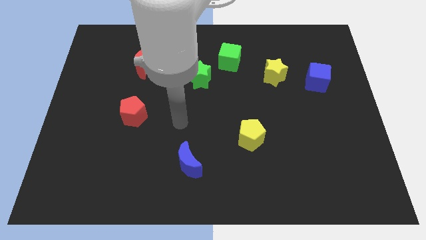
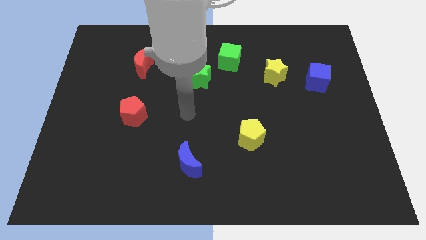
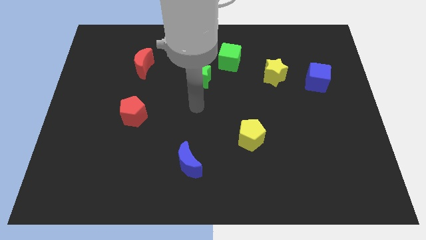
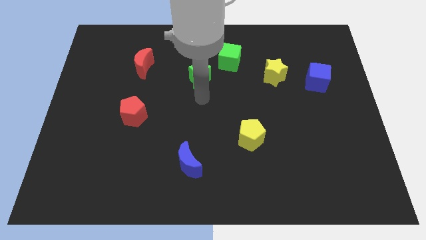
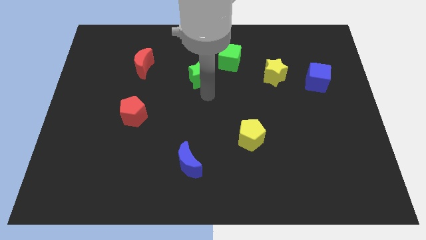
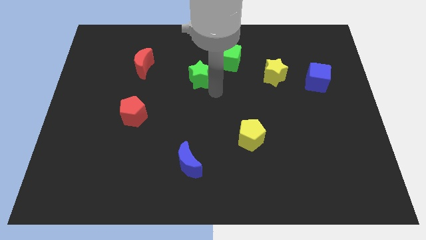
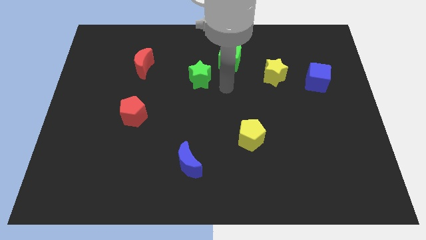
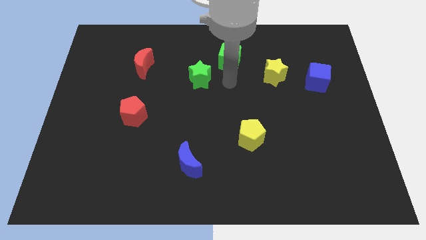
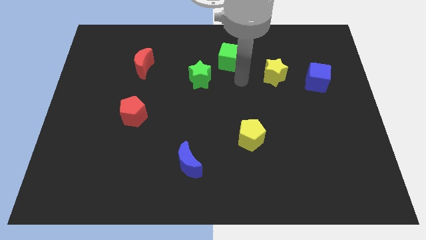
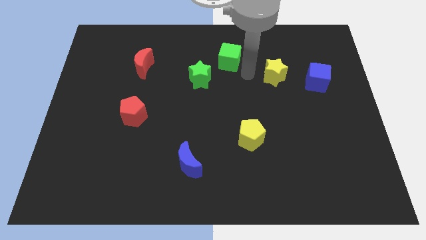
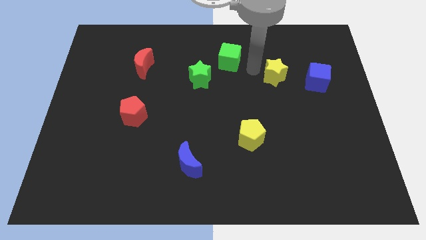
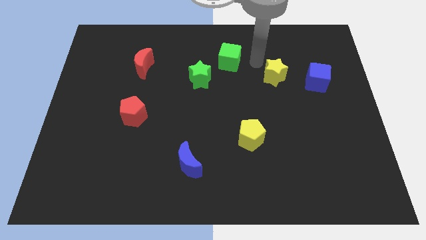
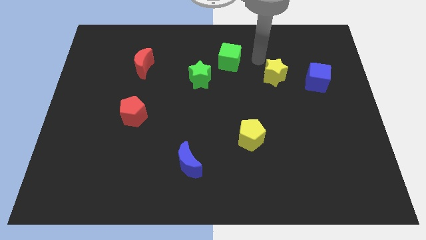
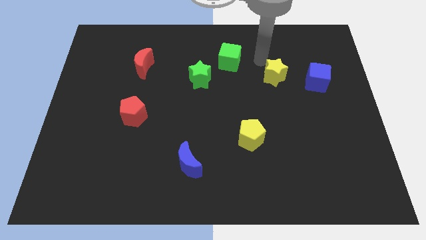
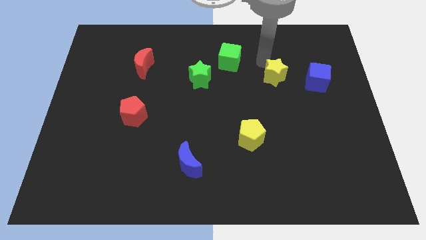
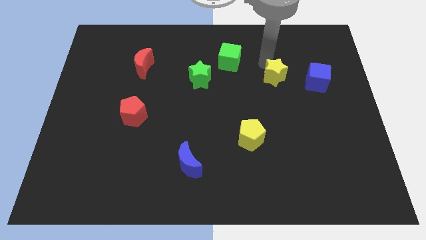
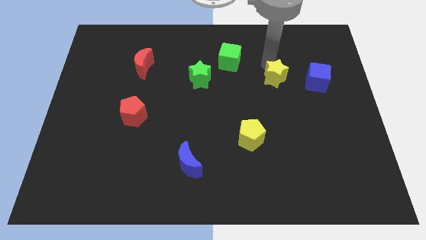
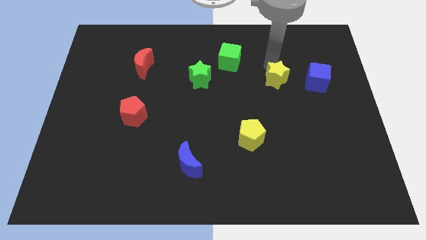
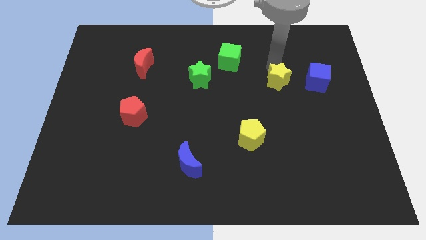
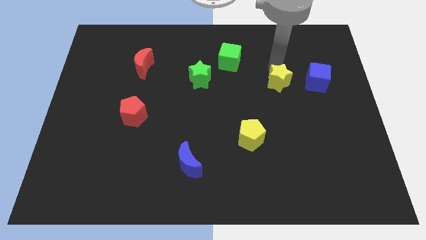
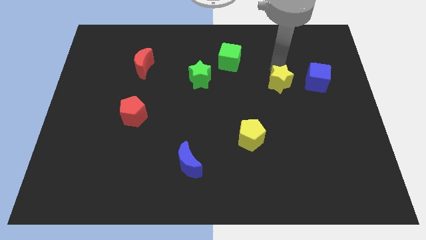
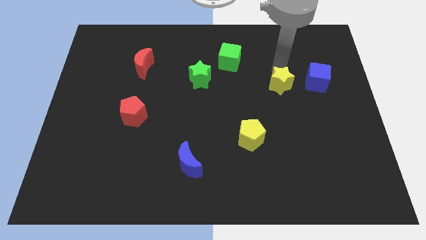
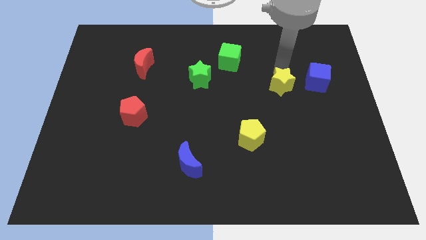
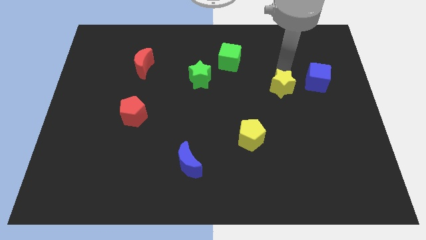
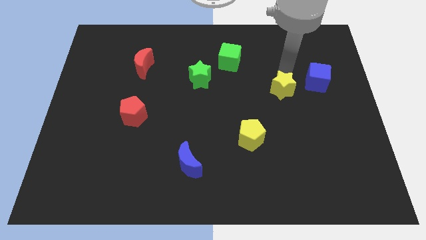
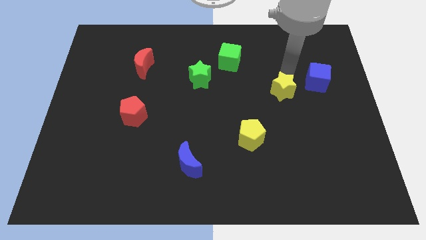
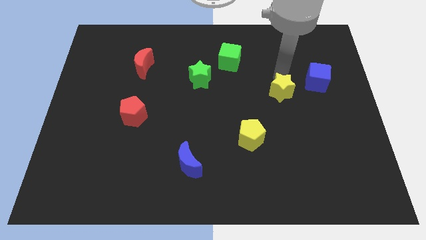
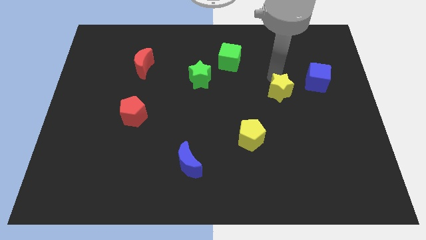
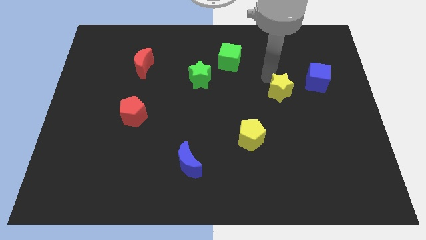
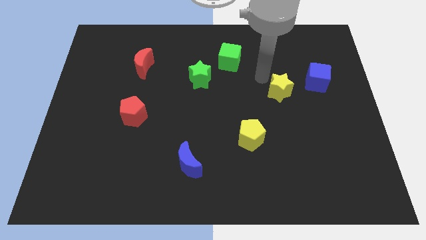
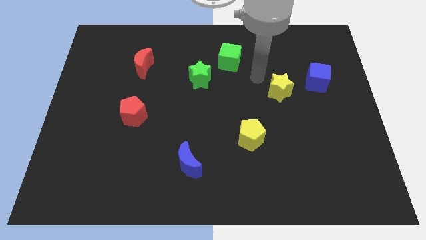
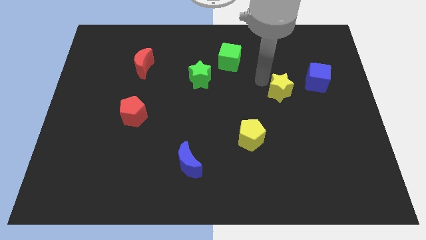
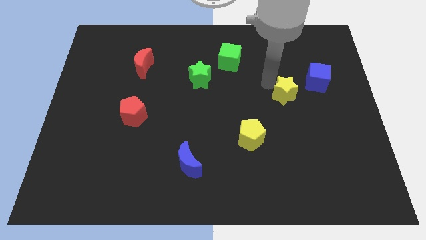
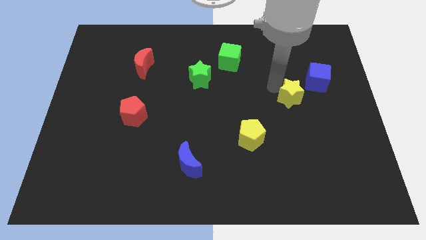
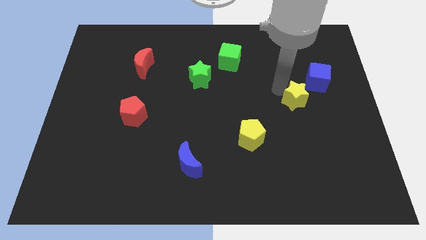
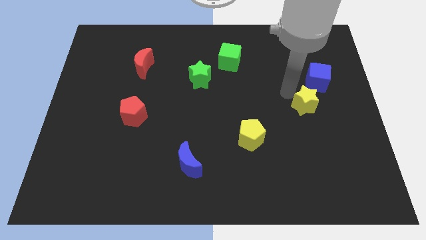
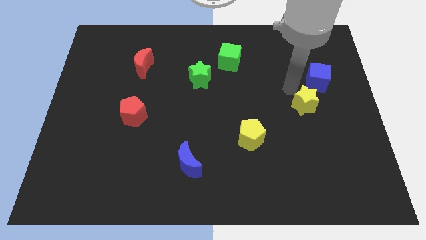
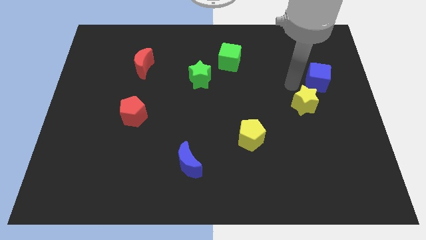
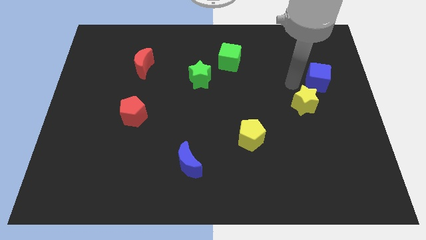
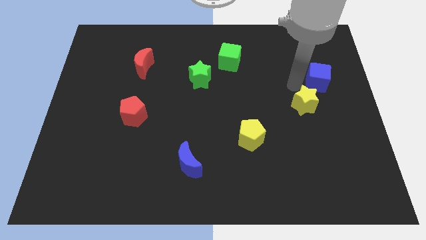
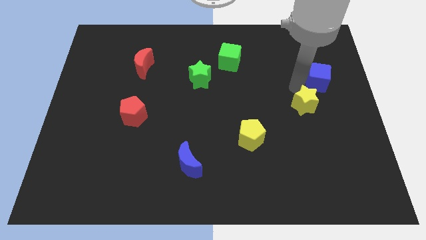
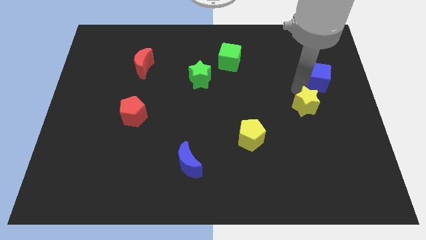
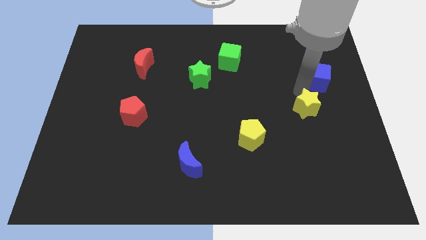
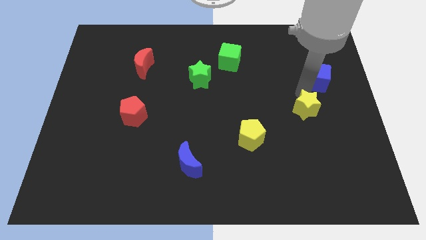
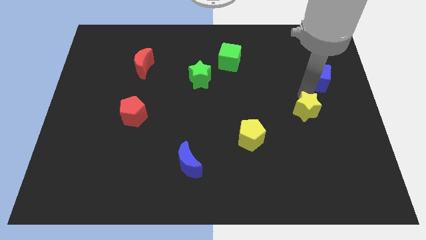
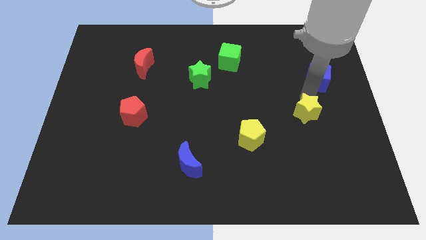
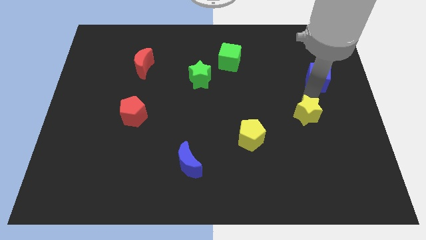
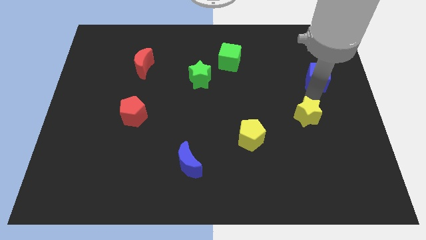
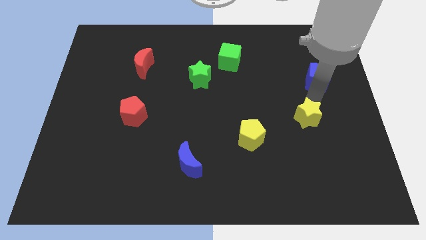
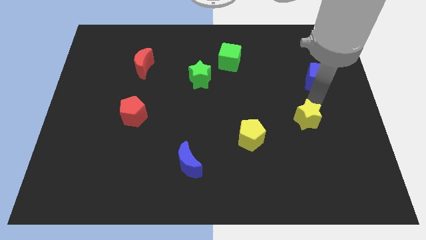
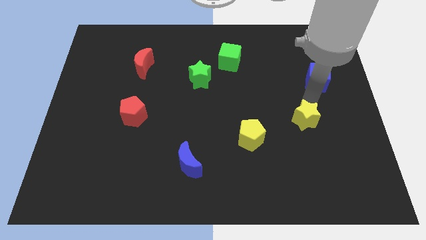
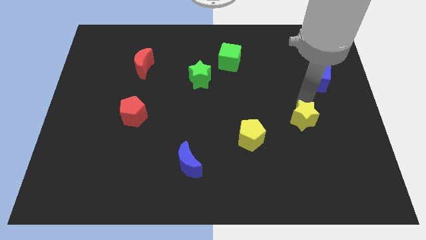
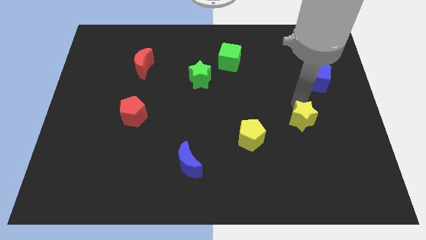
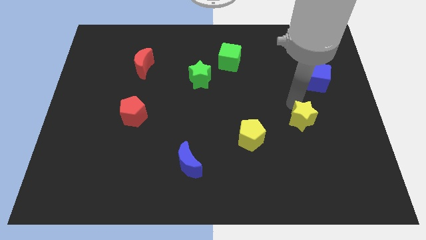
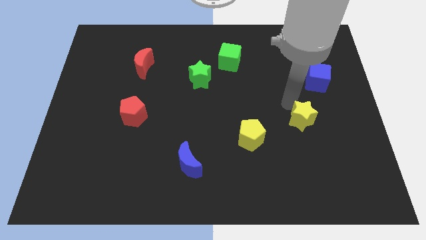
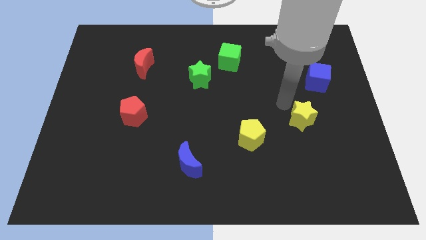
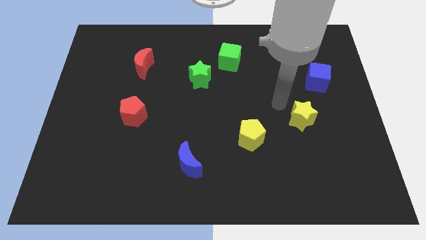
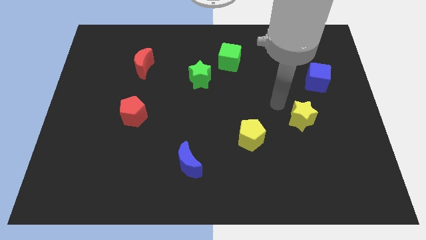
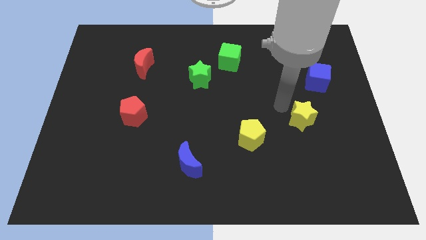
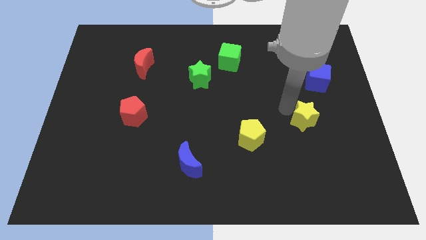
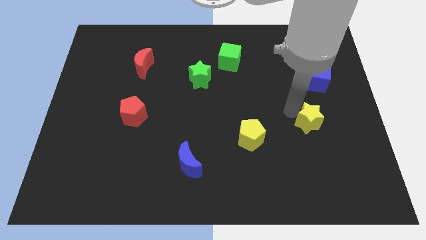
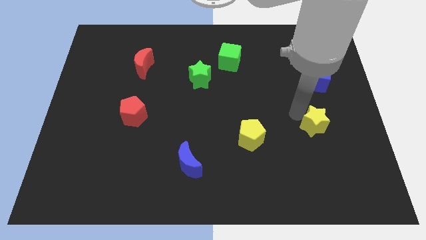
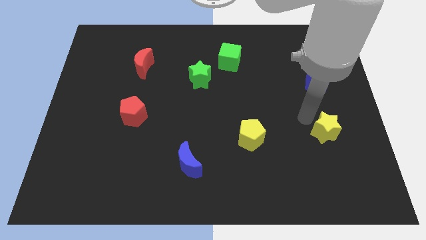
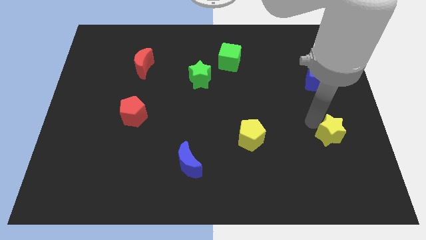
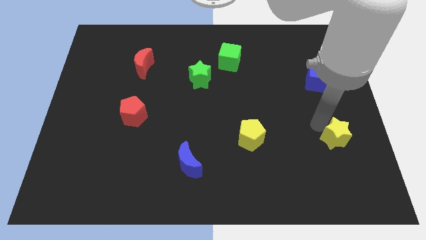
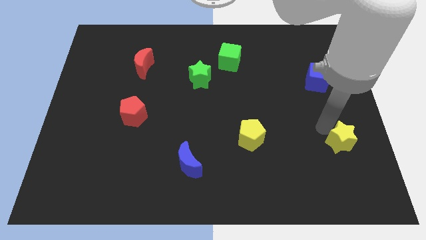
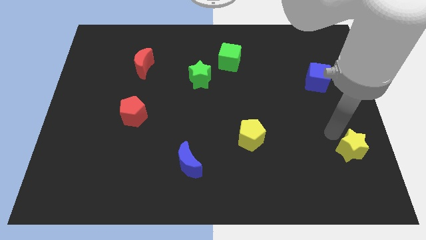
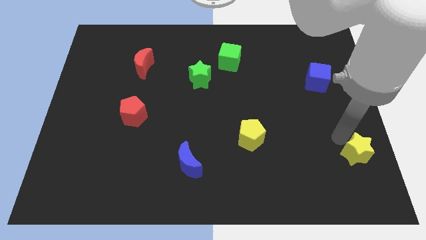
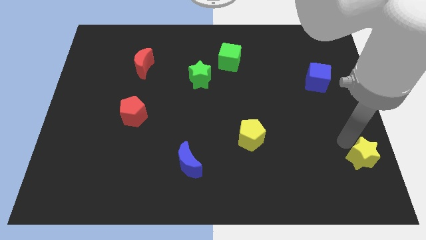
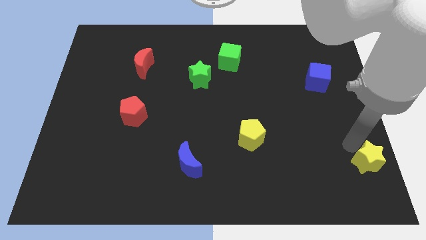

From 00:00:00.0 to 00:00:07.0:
slide the yellow star to the bottom right corner
